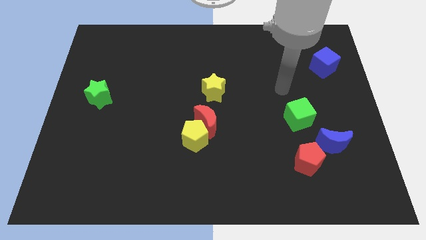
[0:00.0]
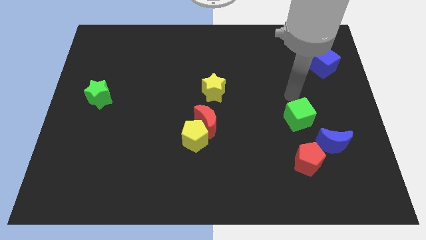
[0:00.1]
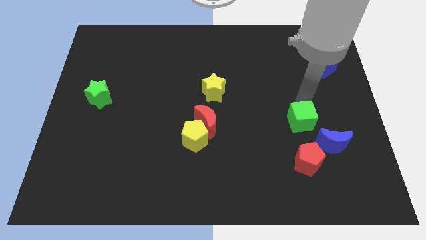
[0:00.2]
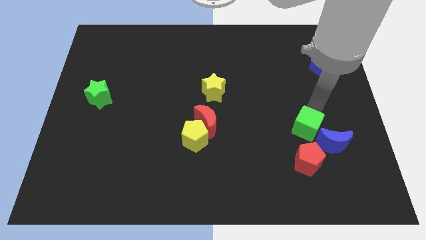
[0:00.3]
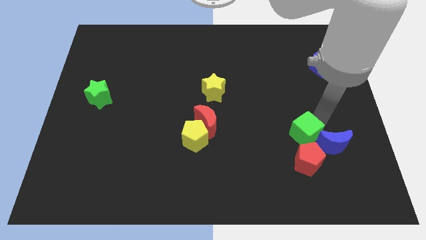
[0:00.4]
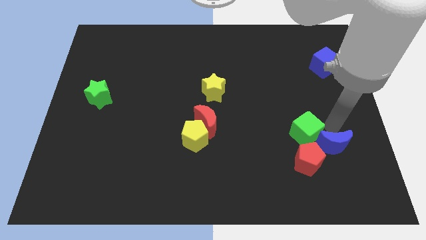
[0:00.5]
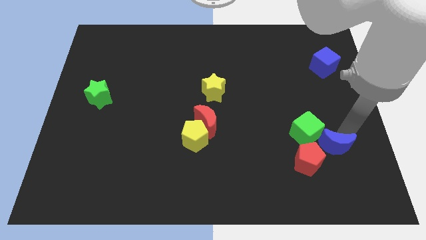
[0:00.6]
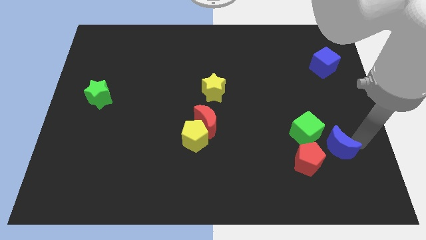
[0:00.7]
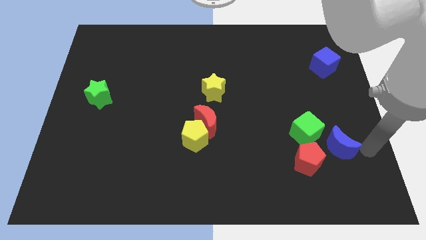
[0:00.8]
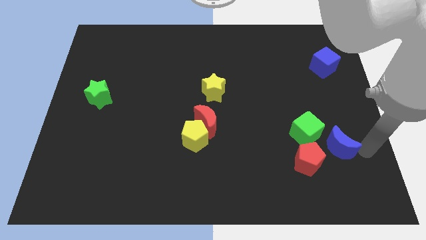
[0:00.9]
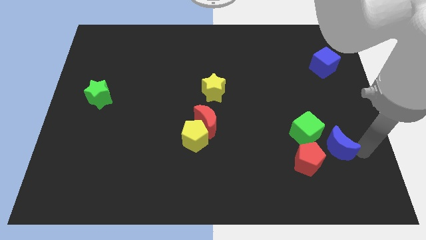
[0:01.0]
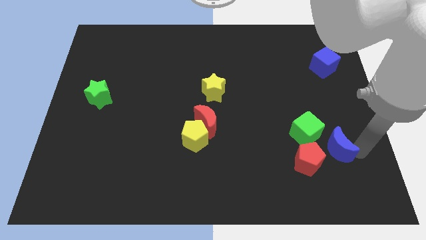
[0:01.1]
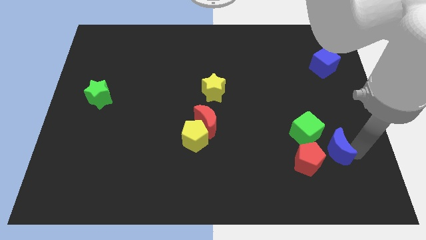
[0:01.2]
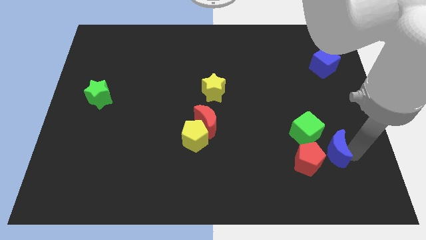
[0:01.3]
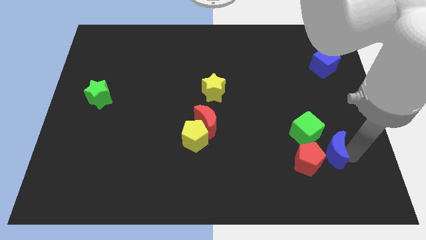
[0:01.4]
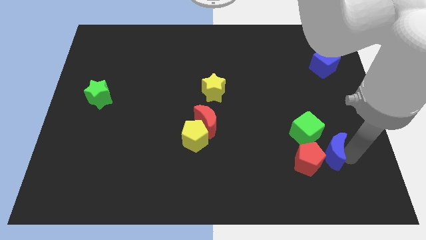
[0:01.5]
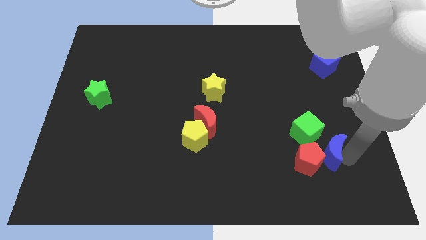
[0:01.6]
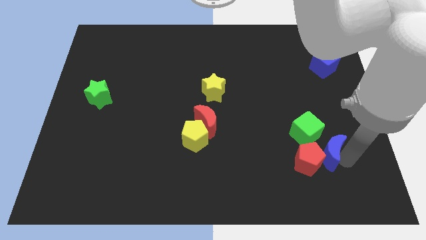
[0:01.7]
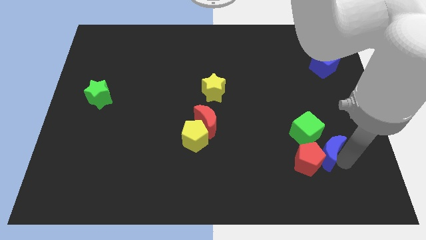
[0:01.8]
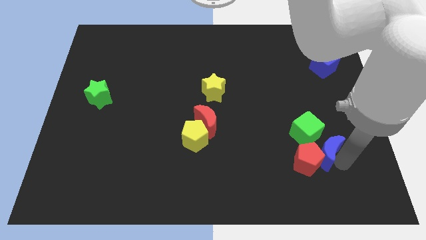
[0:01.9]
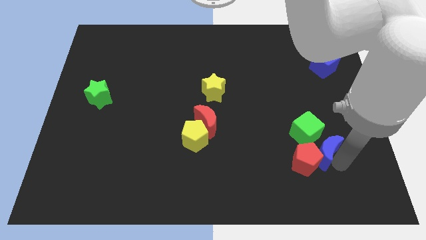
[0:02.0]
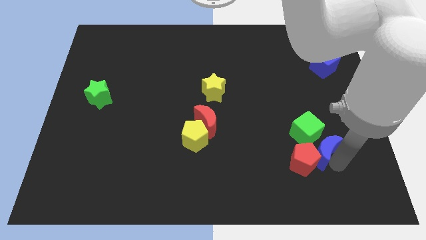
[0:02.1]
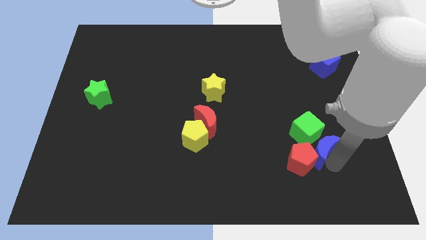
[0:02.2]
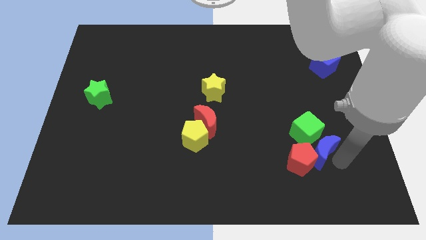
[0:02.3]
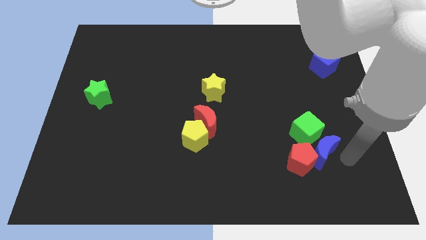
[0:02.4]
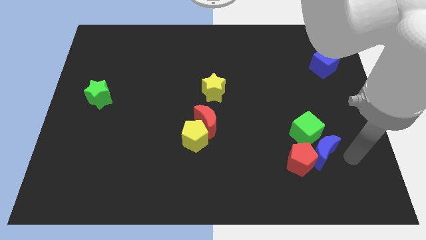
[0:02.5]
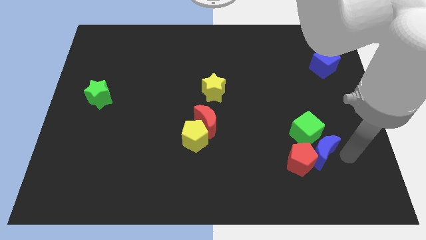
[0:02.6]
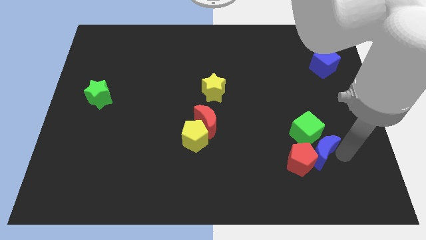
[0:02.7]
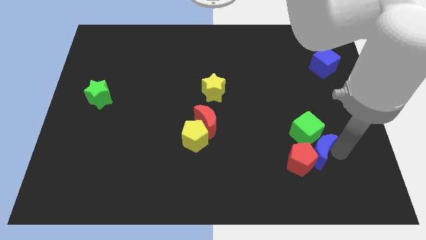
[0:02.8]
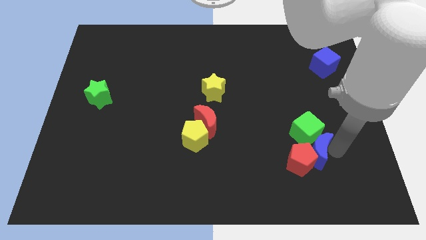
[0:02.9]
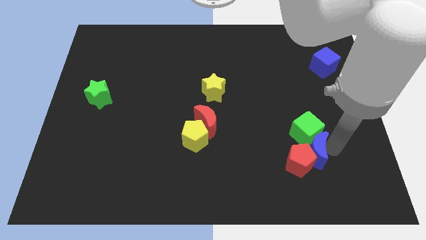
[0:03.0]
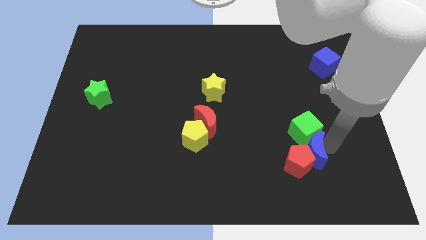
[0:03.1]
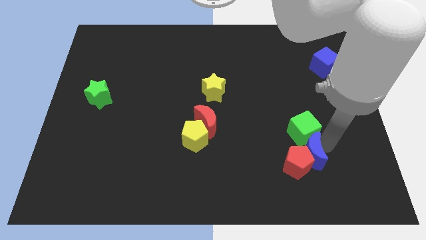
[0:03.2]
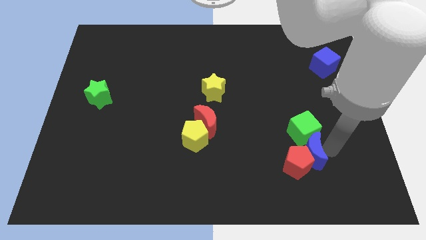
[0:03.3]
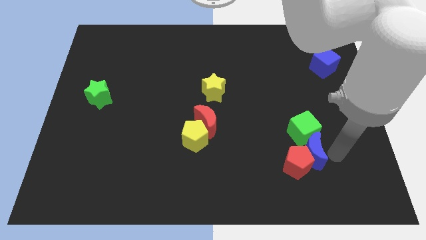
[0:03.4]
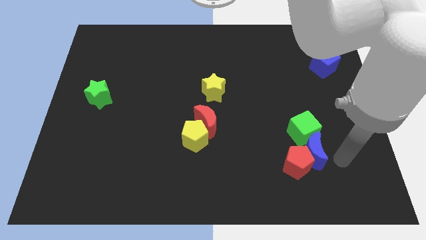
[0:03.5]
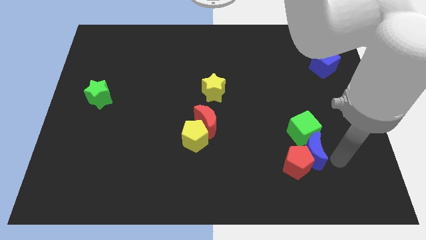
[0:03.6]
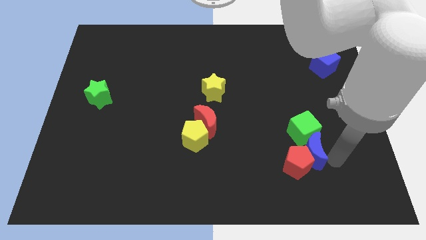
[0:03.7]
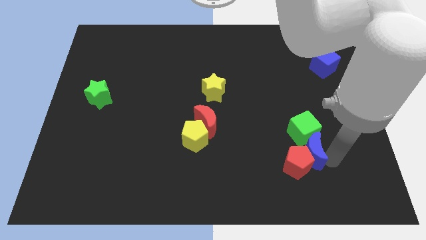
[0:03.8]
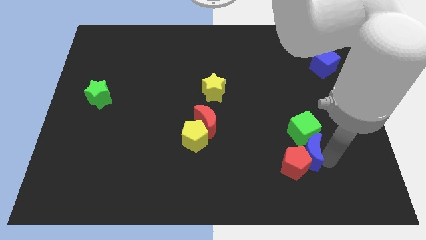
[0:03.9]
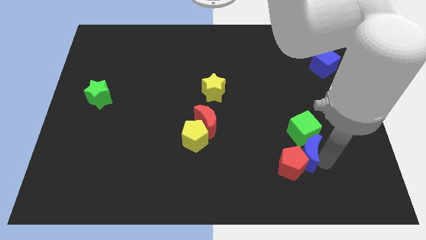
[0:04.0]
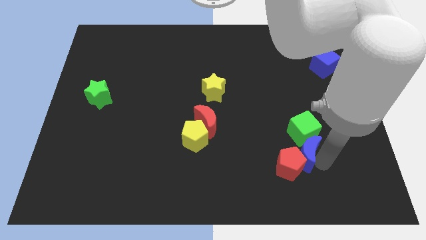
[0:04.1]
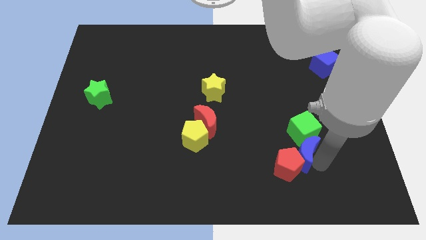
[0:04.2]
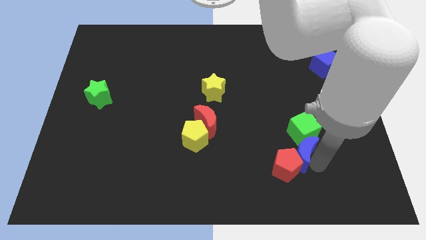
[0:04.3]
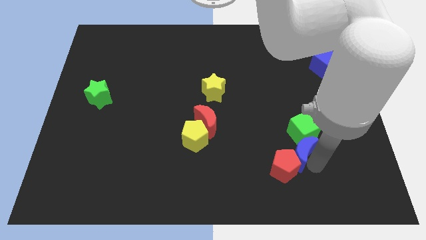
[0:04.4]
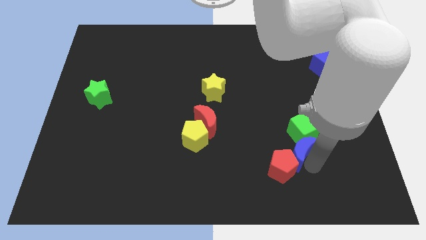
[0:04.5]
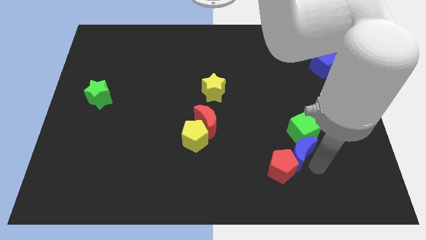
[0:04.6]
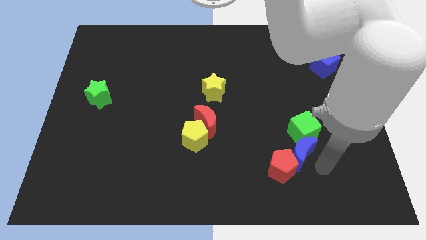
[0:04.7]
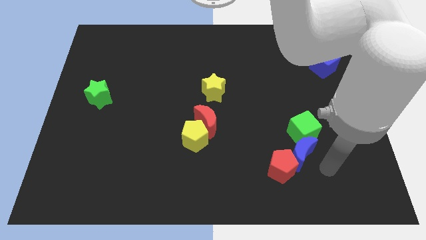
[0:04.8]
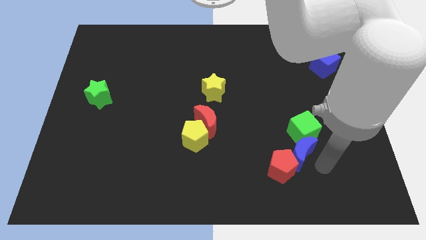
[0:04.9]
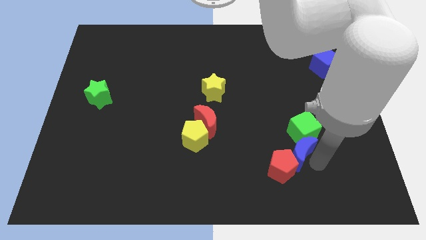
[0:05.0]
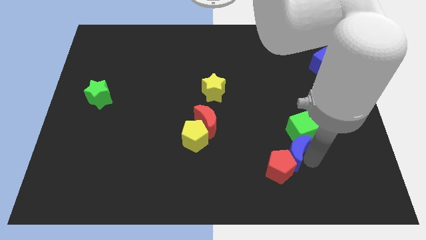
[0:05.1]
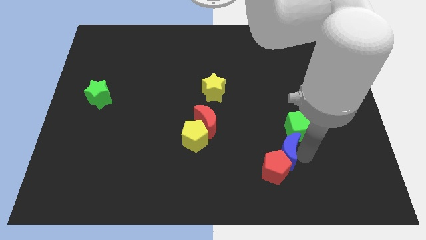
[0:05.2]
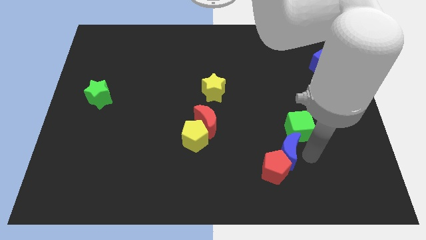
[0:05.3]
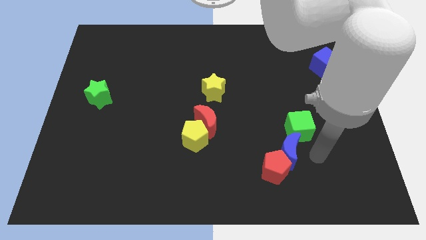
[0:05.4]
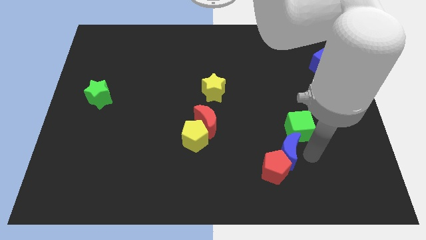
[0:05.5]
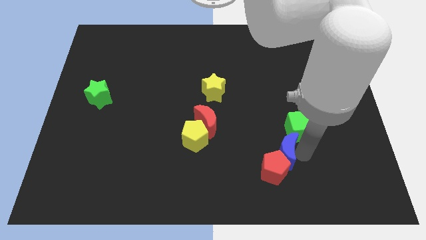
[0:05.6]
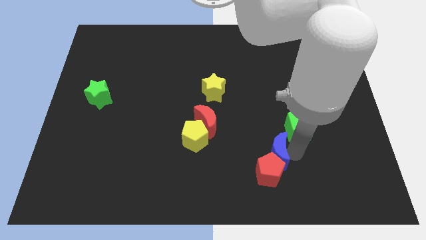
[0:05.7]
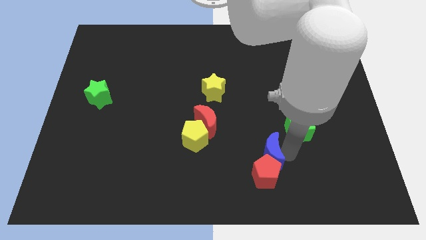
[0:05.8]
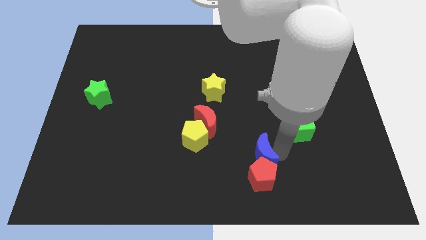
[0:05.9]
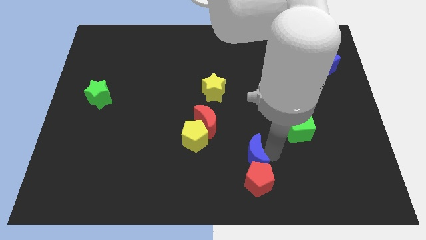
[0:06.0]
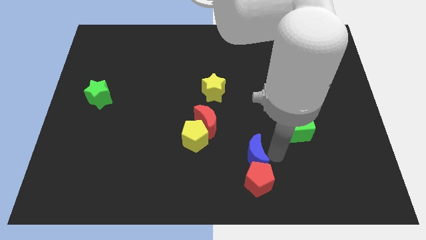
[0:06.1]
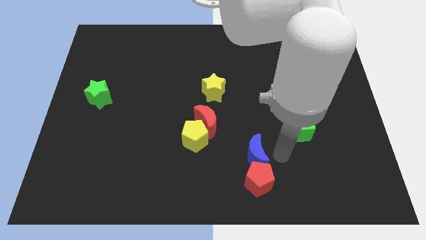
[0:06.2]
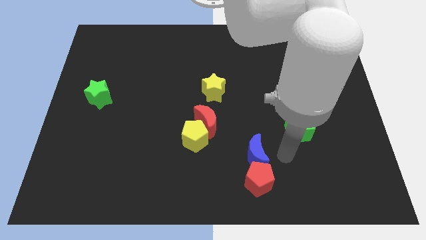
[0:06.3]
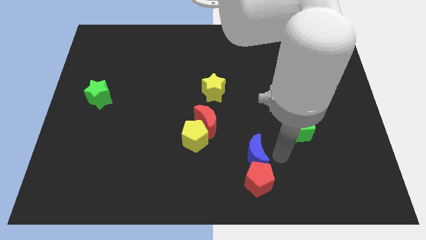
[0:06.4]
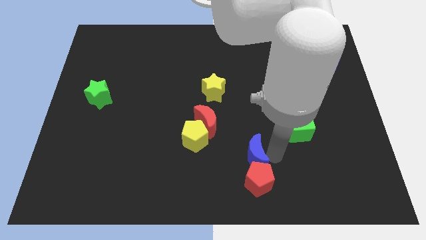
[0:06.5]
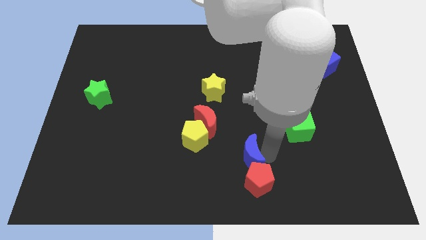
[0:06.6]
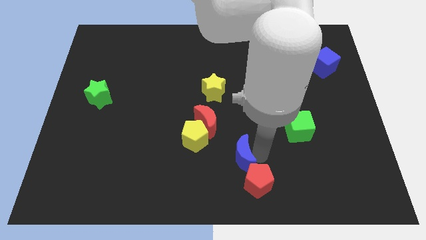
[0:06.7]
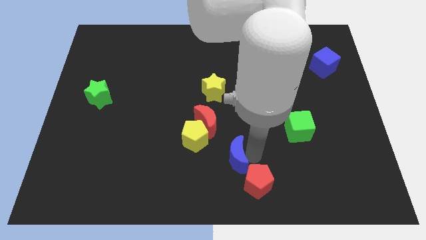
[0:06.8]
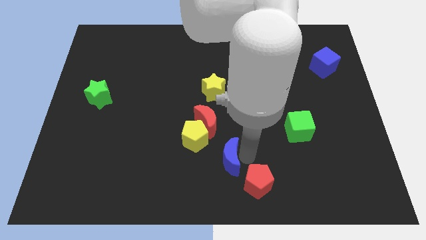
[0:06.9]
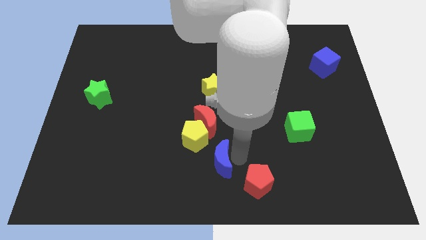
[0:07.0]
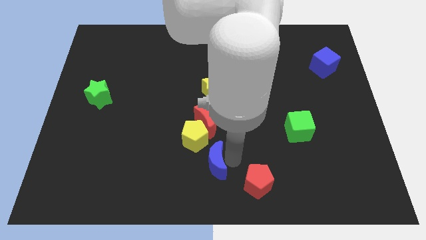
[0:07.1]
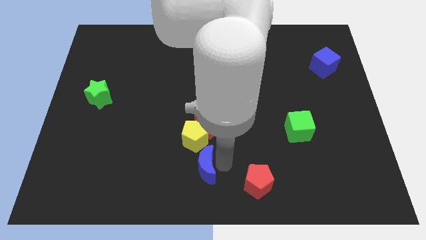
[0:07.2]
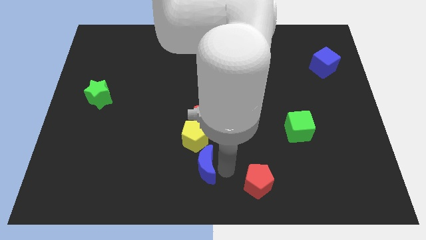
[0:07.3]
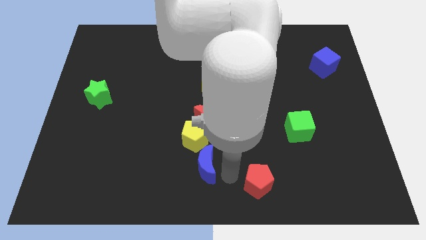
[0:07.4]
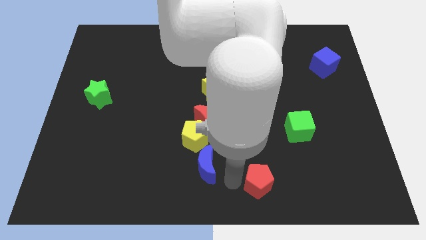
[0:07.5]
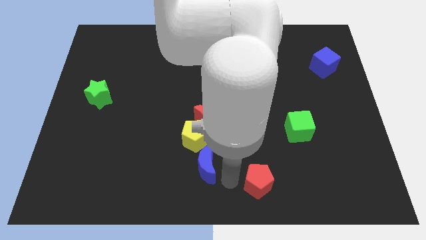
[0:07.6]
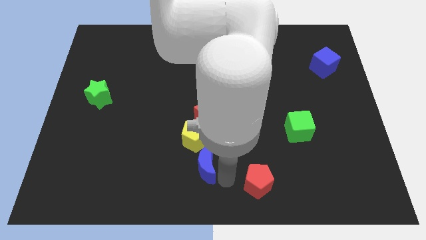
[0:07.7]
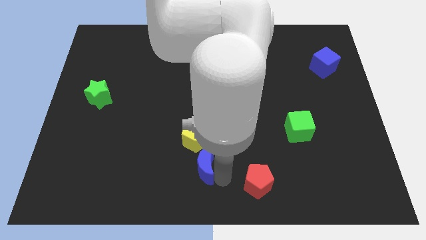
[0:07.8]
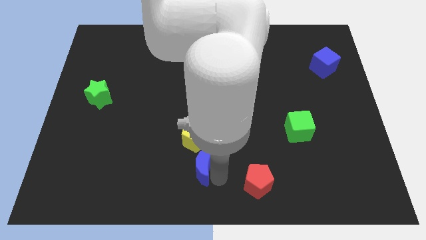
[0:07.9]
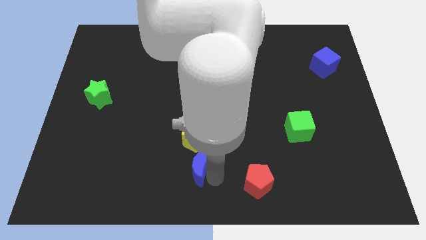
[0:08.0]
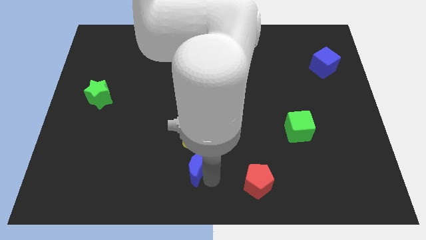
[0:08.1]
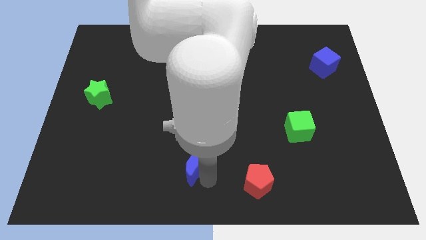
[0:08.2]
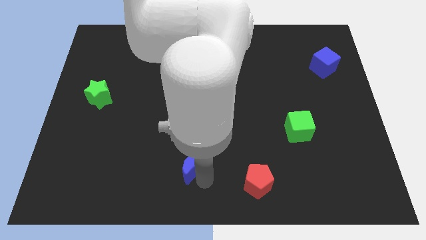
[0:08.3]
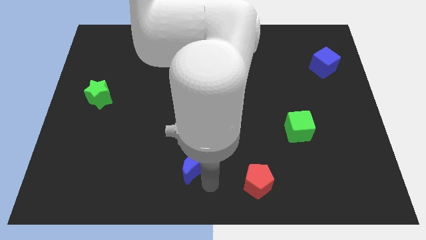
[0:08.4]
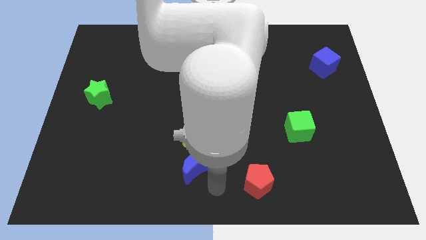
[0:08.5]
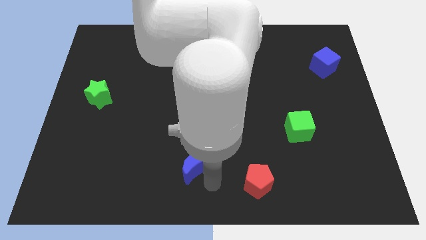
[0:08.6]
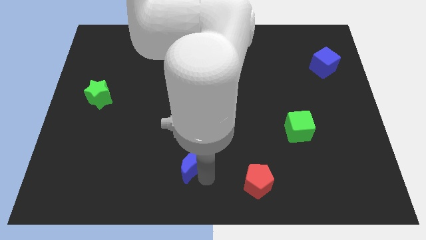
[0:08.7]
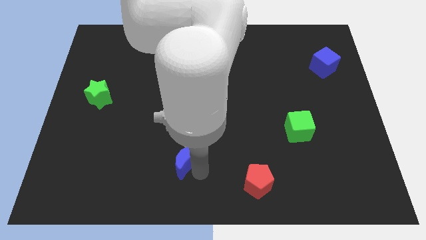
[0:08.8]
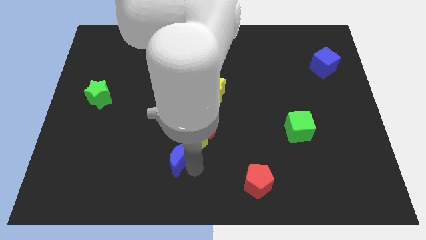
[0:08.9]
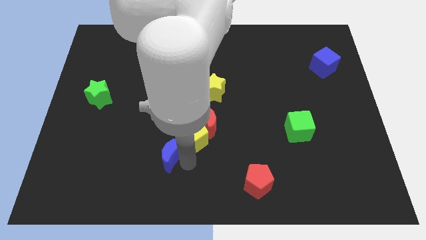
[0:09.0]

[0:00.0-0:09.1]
put the blue moon left of the yellow pentagon
